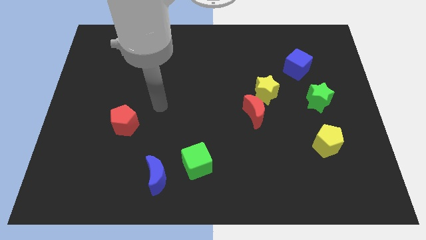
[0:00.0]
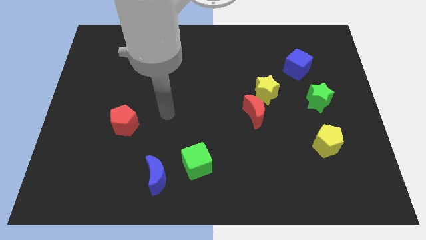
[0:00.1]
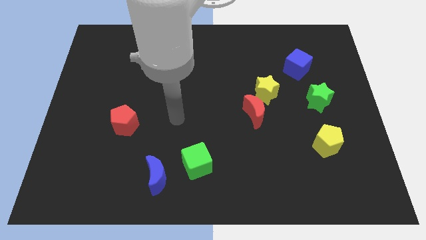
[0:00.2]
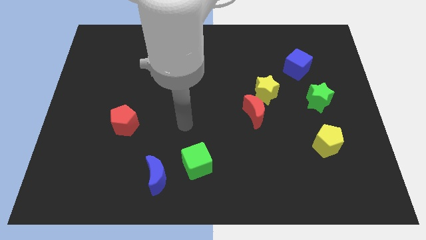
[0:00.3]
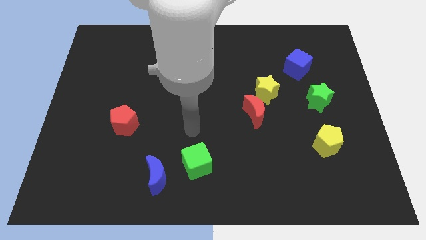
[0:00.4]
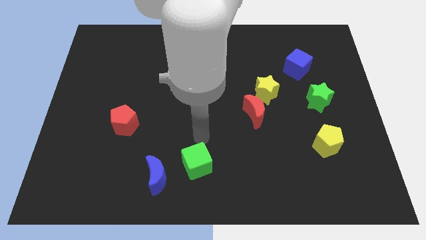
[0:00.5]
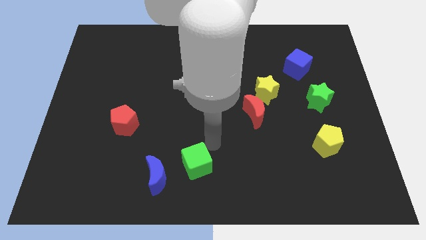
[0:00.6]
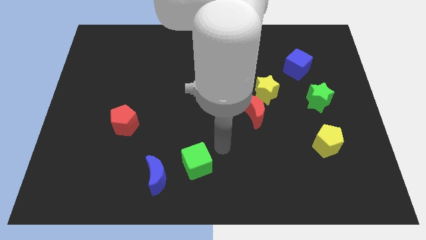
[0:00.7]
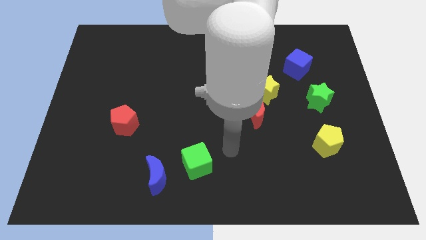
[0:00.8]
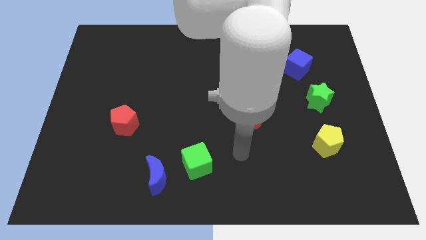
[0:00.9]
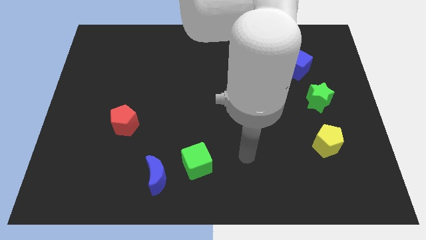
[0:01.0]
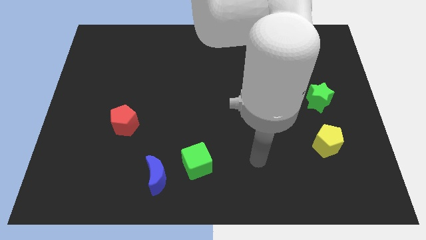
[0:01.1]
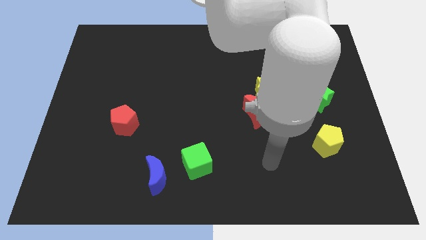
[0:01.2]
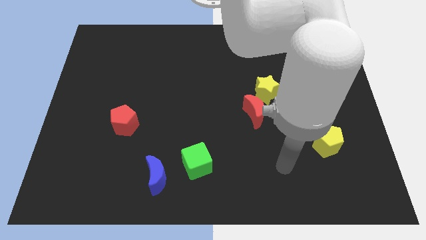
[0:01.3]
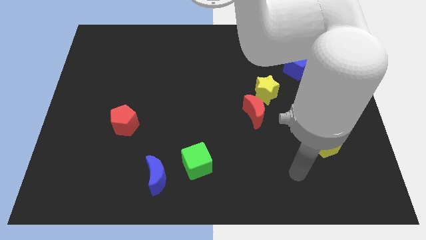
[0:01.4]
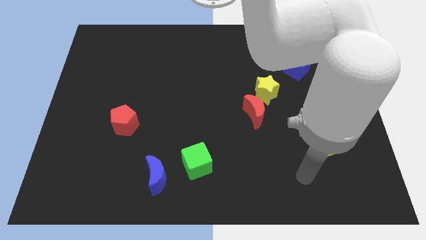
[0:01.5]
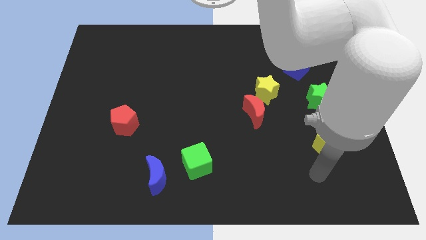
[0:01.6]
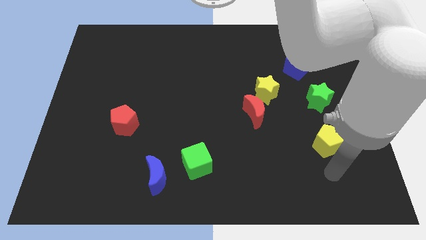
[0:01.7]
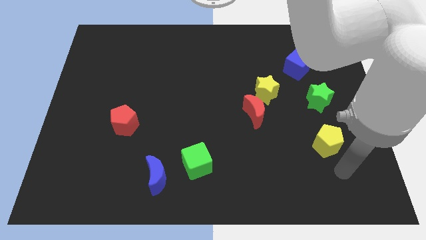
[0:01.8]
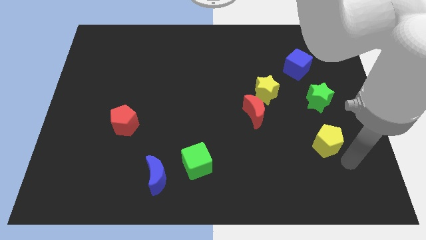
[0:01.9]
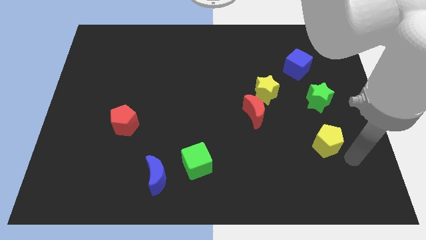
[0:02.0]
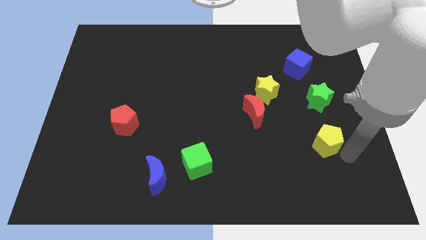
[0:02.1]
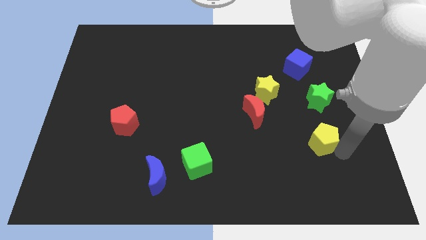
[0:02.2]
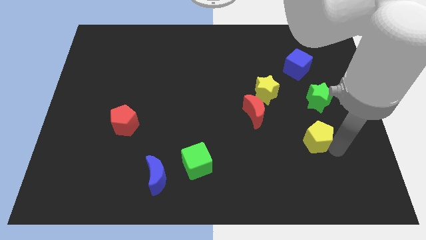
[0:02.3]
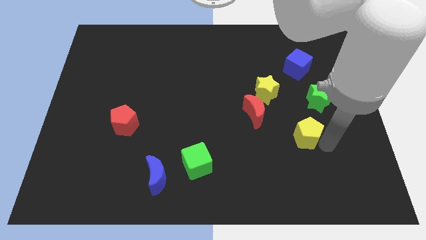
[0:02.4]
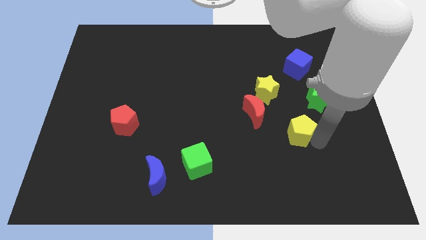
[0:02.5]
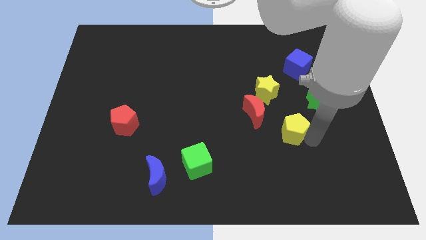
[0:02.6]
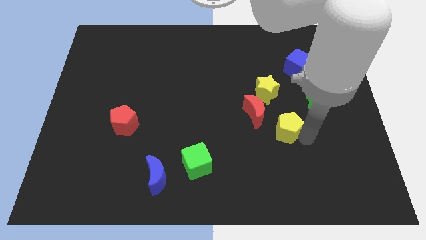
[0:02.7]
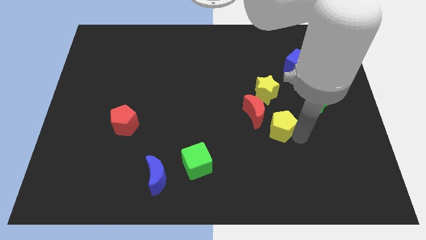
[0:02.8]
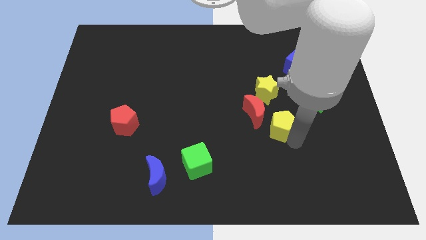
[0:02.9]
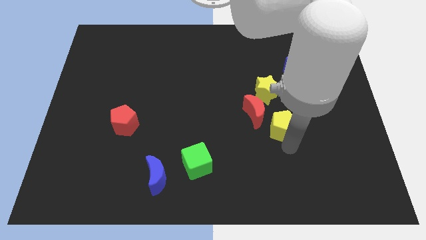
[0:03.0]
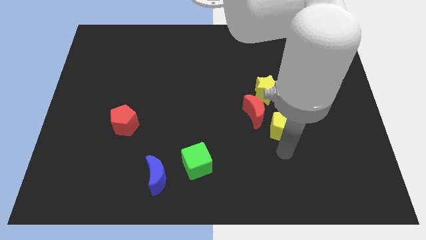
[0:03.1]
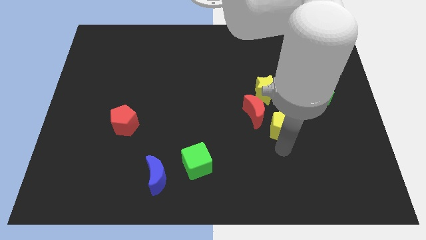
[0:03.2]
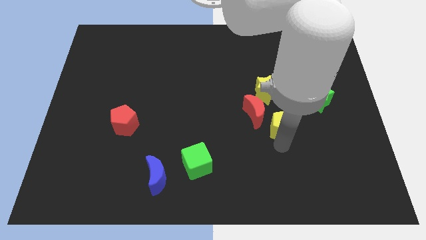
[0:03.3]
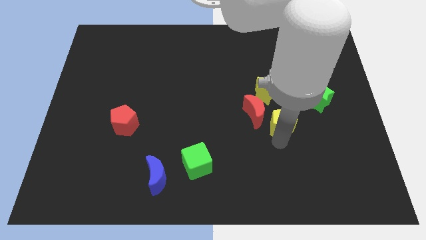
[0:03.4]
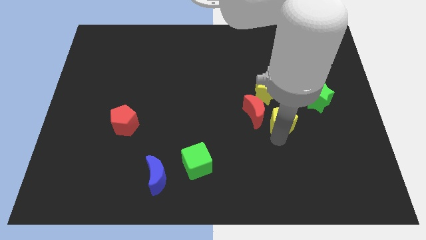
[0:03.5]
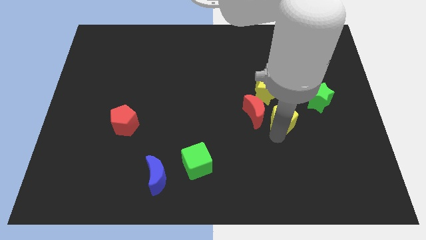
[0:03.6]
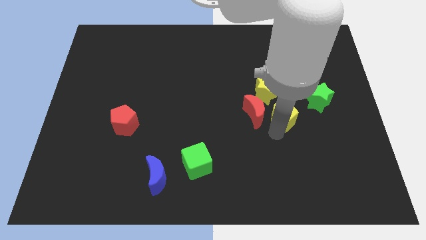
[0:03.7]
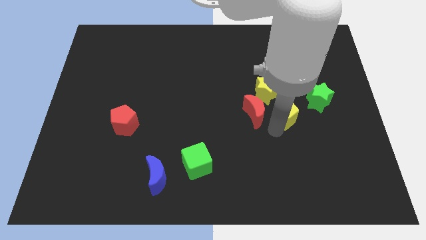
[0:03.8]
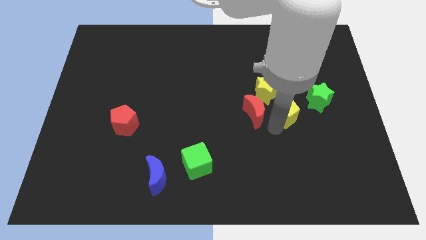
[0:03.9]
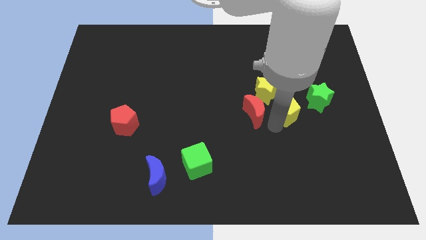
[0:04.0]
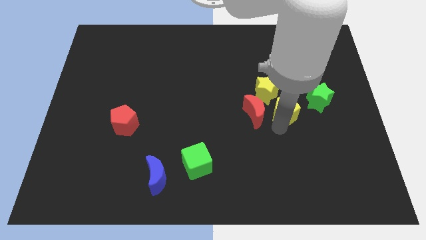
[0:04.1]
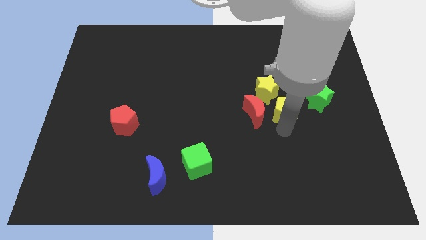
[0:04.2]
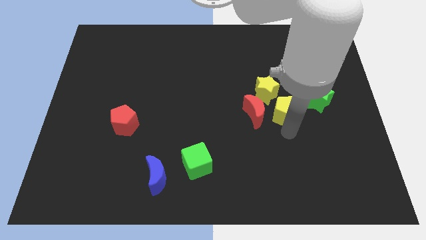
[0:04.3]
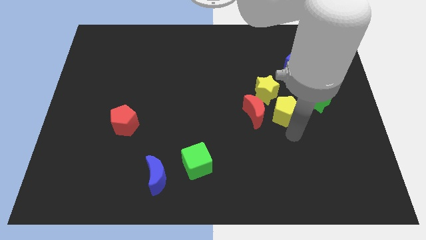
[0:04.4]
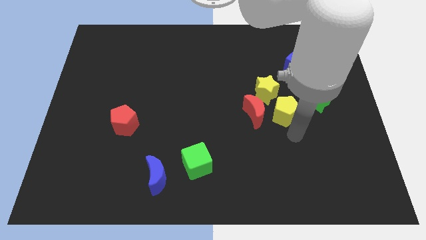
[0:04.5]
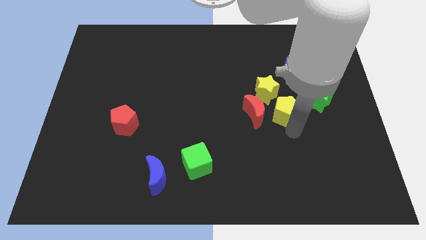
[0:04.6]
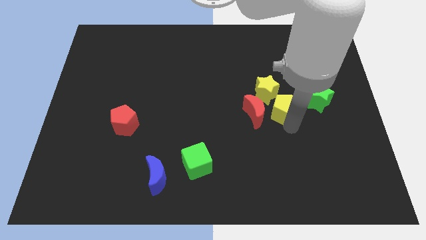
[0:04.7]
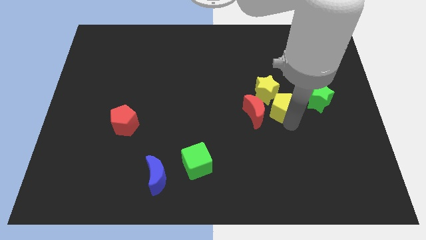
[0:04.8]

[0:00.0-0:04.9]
put the yellow pentagon next to the yellow star

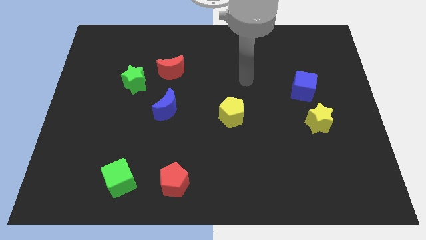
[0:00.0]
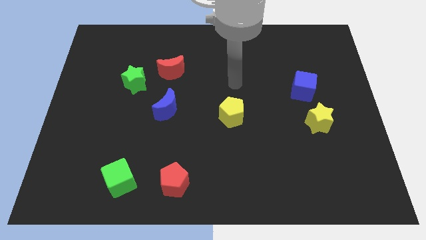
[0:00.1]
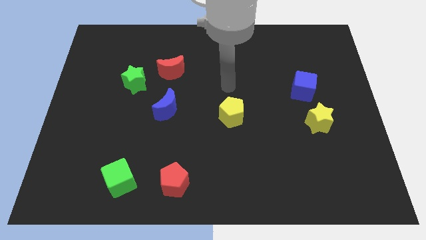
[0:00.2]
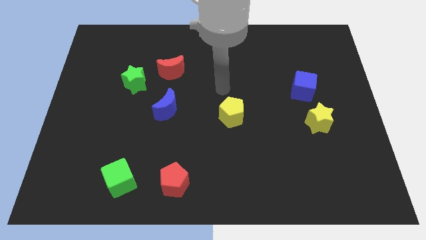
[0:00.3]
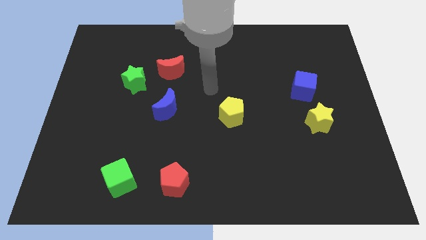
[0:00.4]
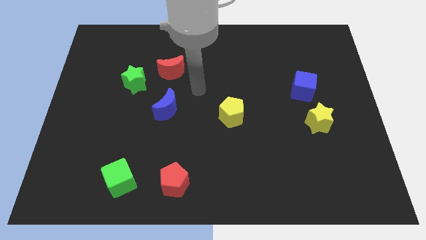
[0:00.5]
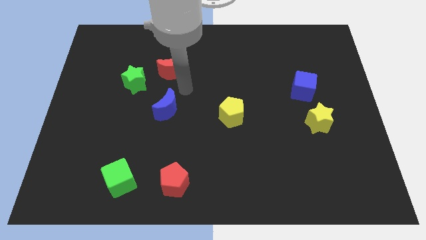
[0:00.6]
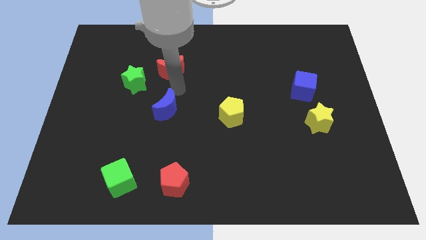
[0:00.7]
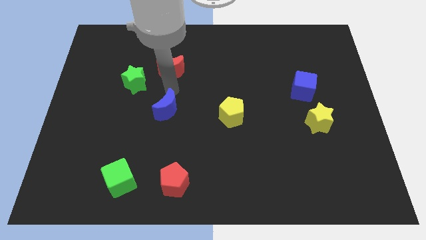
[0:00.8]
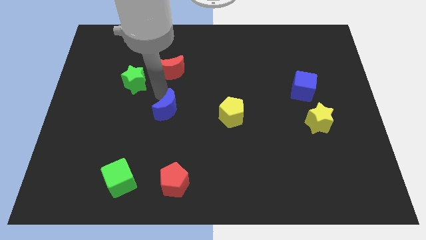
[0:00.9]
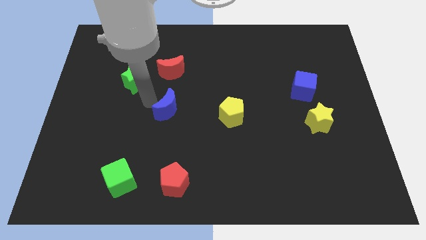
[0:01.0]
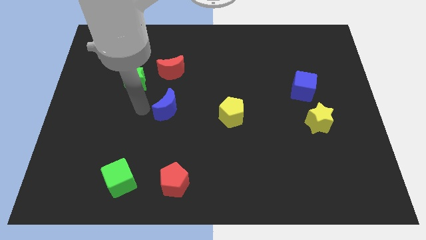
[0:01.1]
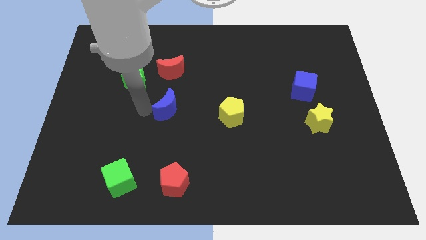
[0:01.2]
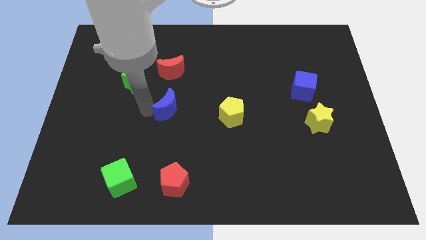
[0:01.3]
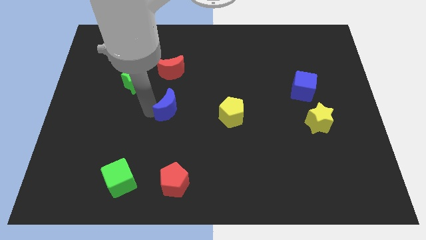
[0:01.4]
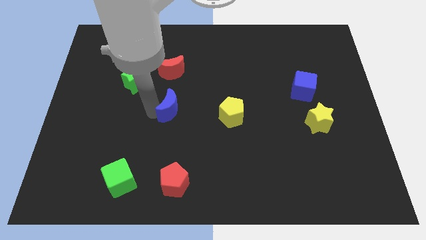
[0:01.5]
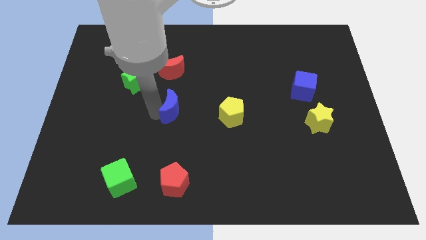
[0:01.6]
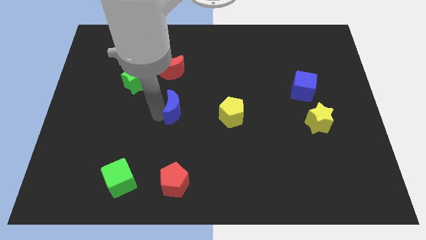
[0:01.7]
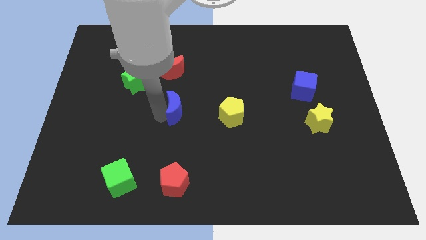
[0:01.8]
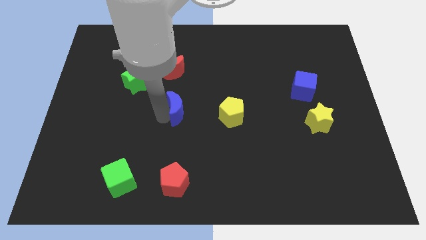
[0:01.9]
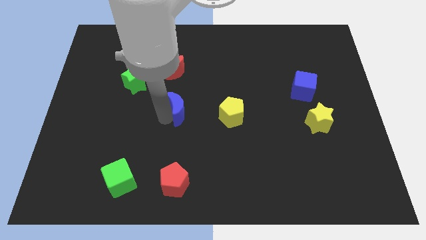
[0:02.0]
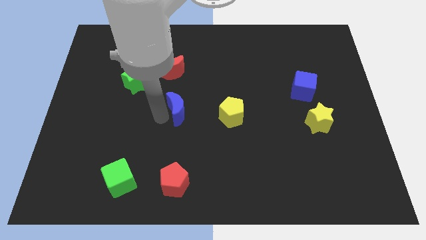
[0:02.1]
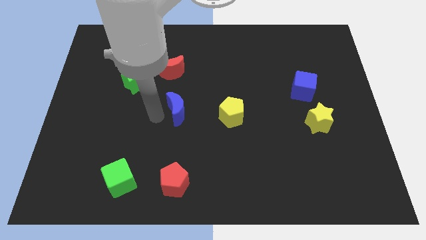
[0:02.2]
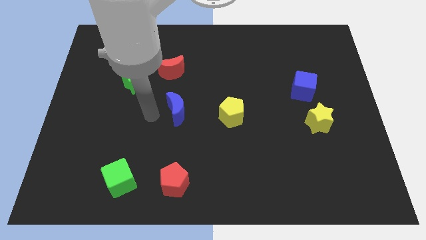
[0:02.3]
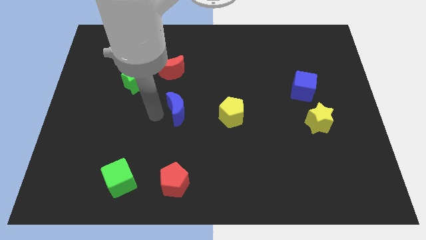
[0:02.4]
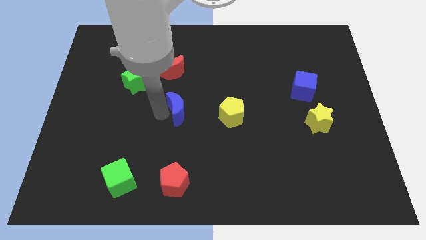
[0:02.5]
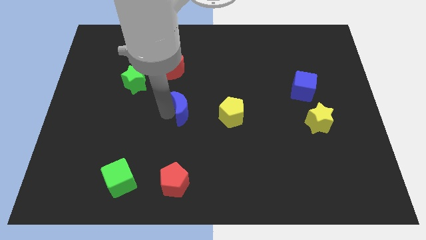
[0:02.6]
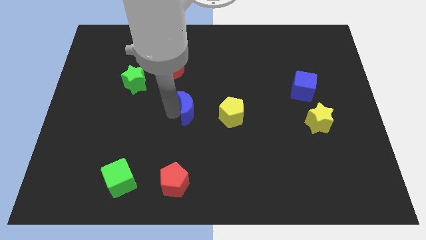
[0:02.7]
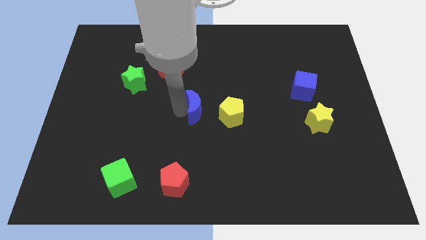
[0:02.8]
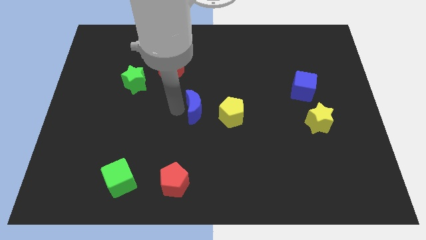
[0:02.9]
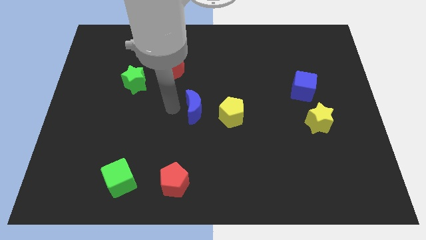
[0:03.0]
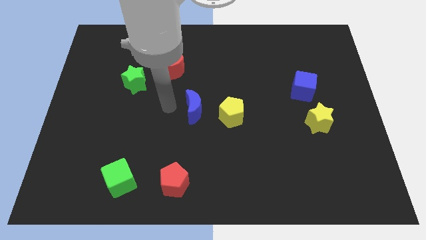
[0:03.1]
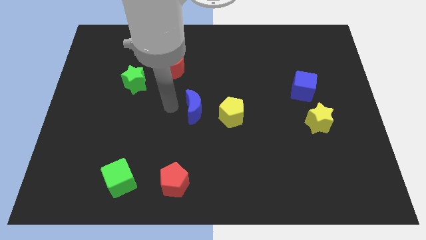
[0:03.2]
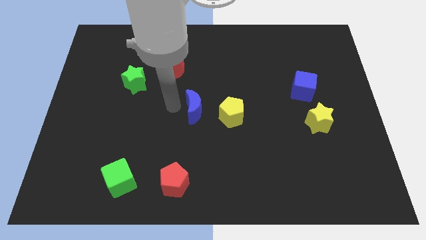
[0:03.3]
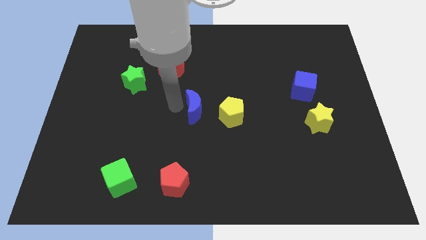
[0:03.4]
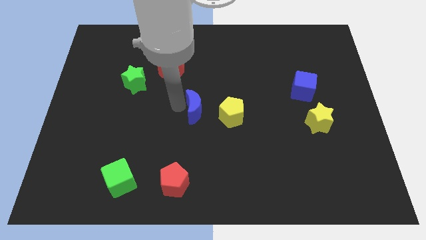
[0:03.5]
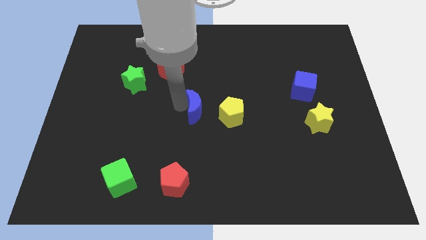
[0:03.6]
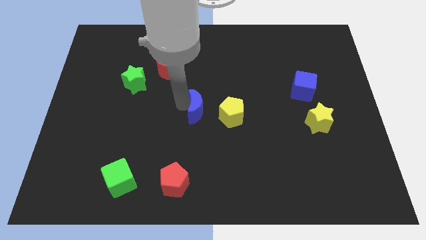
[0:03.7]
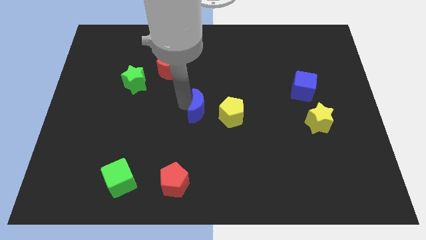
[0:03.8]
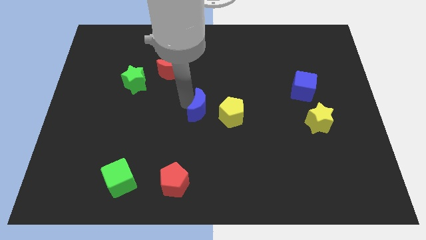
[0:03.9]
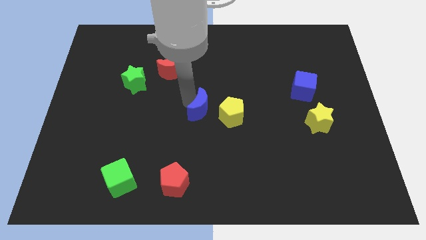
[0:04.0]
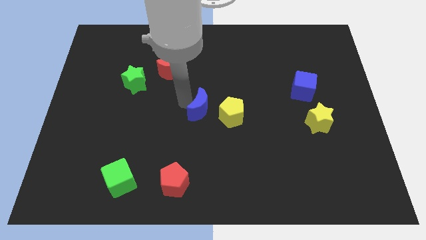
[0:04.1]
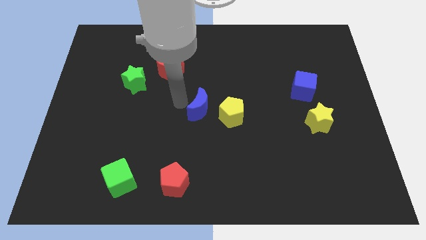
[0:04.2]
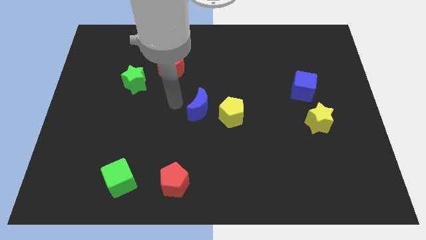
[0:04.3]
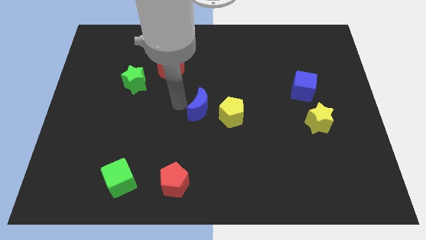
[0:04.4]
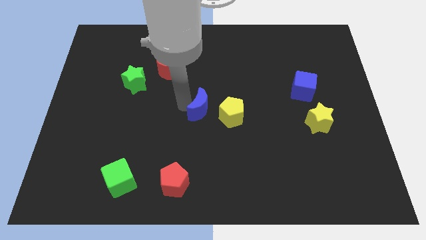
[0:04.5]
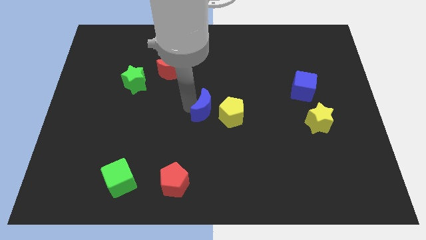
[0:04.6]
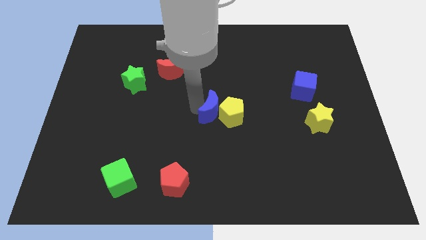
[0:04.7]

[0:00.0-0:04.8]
push the blue moon next to the yellow pentagon
